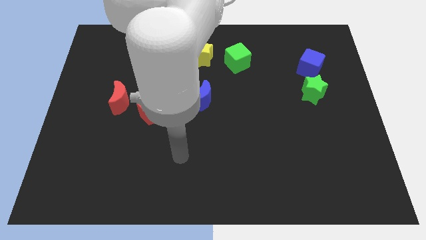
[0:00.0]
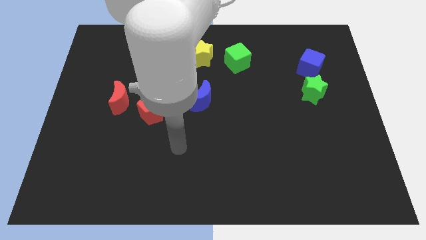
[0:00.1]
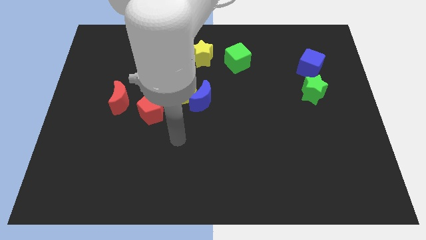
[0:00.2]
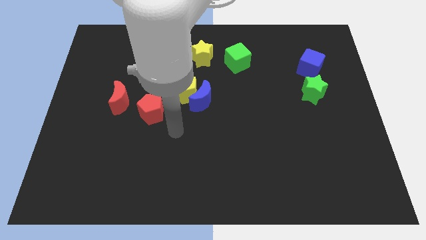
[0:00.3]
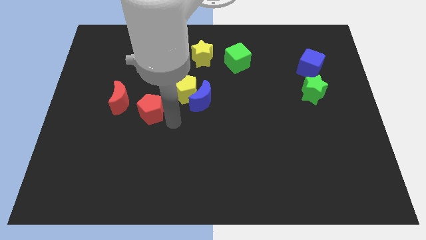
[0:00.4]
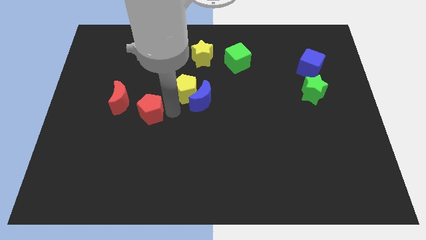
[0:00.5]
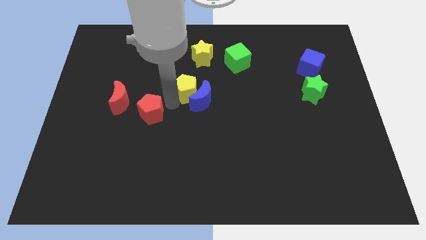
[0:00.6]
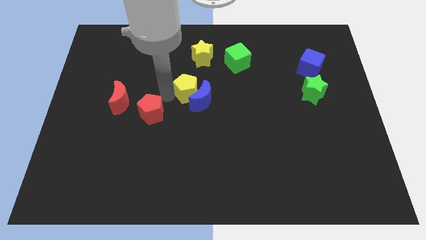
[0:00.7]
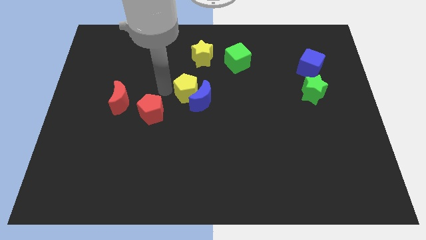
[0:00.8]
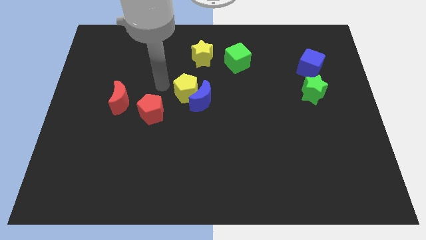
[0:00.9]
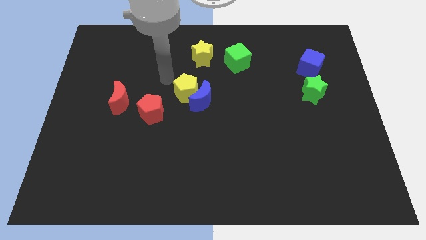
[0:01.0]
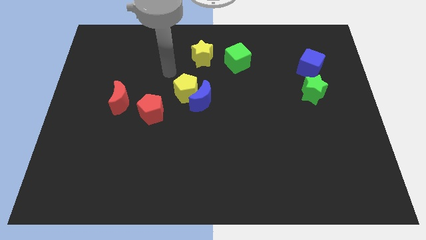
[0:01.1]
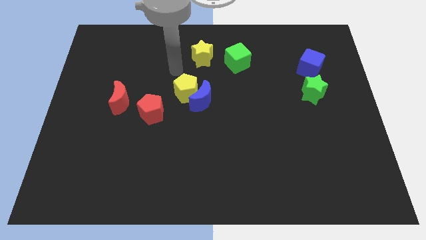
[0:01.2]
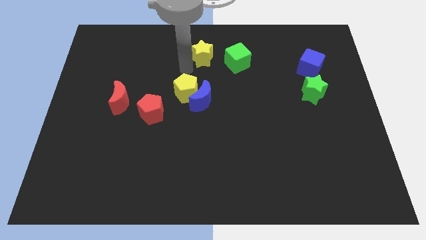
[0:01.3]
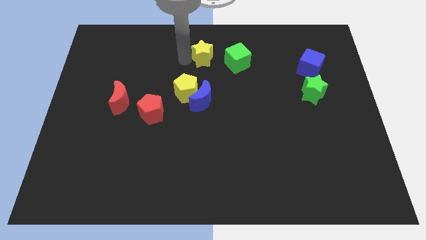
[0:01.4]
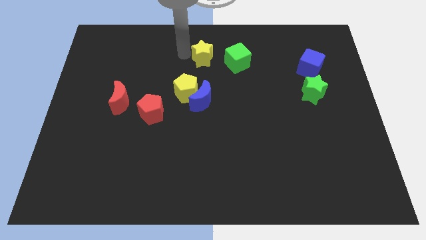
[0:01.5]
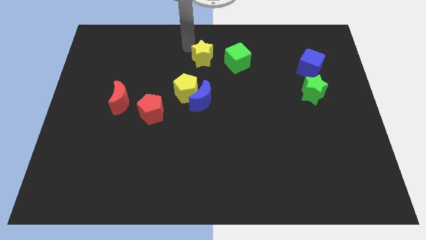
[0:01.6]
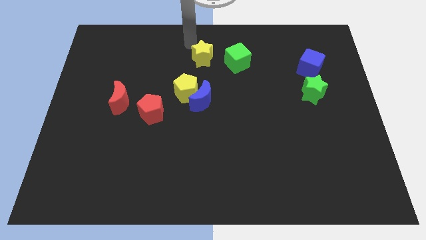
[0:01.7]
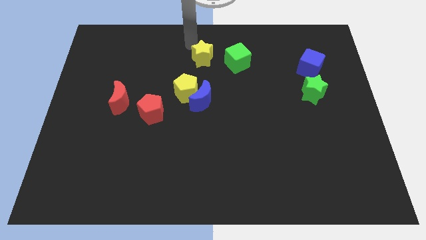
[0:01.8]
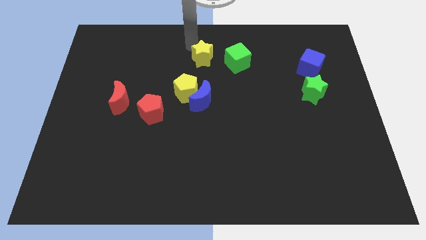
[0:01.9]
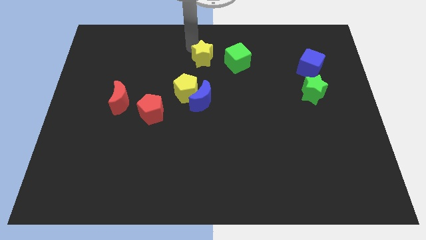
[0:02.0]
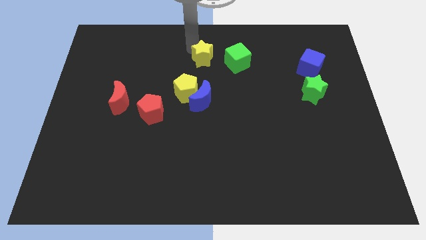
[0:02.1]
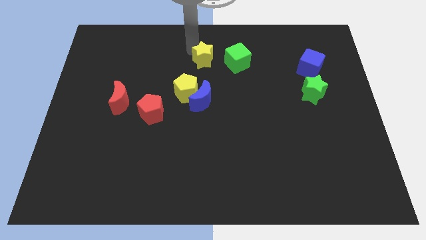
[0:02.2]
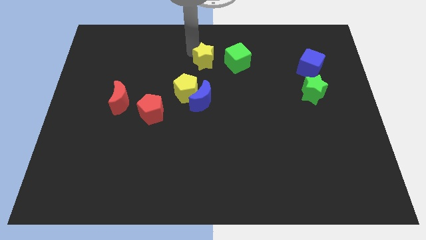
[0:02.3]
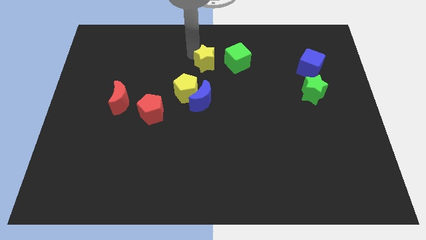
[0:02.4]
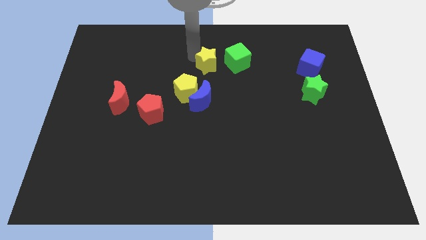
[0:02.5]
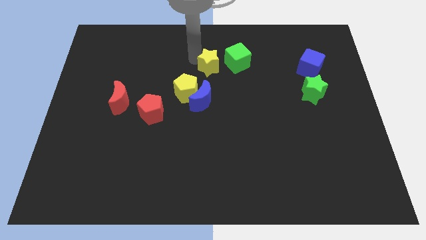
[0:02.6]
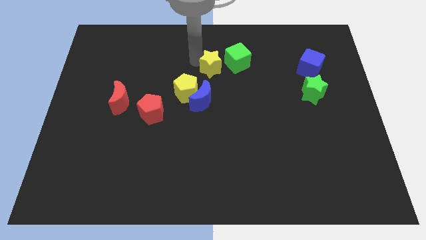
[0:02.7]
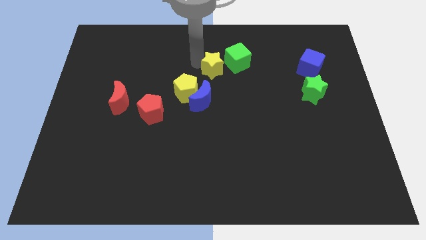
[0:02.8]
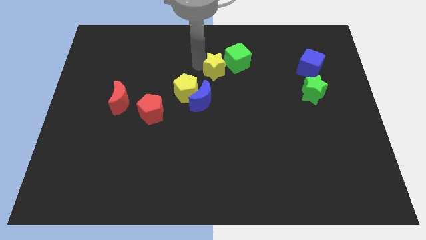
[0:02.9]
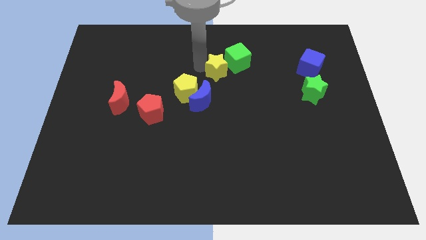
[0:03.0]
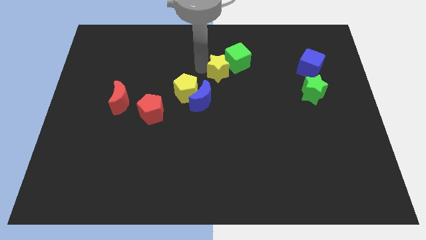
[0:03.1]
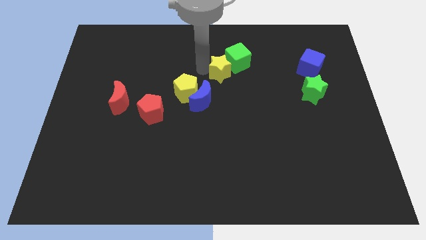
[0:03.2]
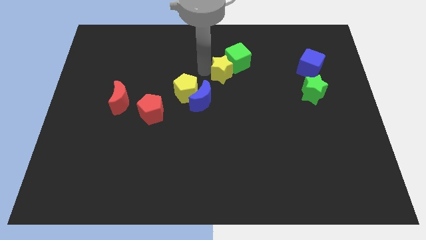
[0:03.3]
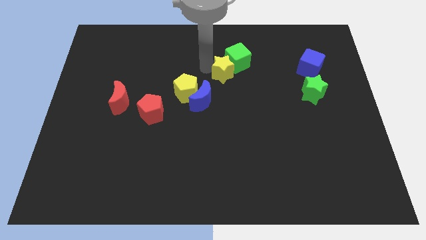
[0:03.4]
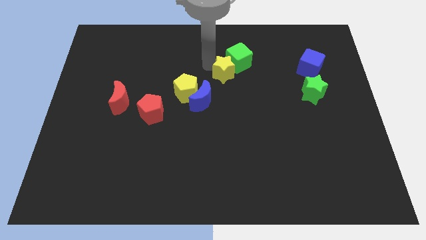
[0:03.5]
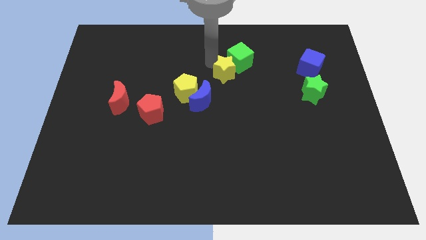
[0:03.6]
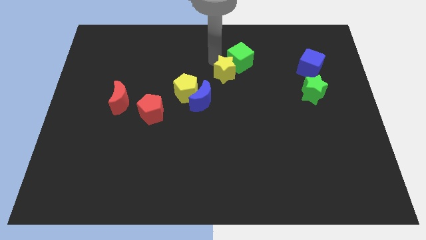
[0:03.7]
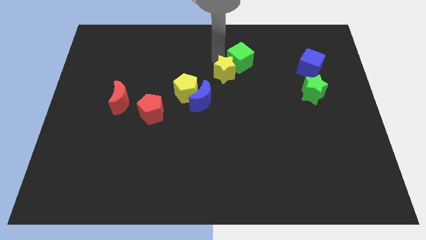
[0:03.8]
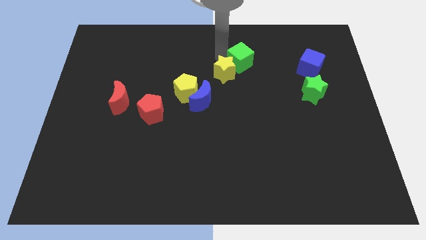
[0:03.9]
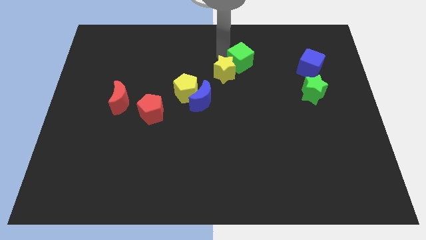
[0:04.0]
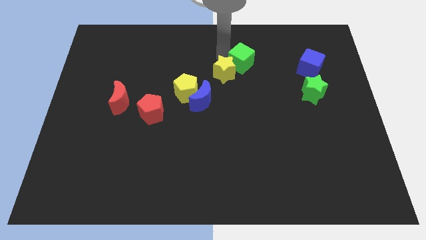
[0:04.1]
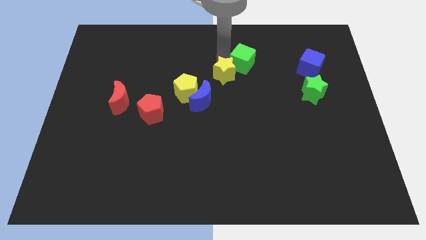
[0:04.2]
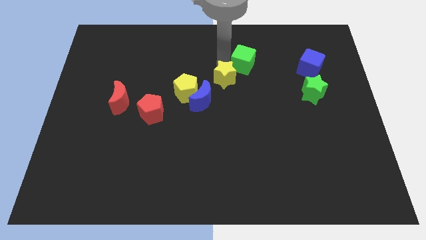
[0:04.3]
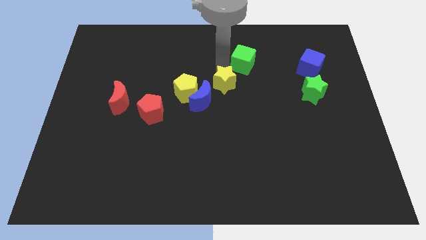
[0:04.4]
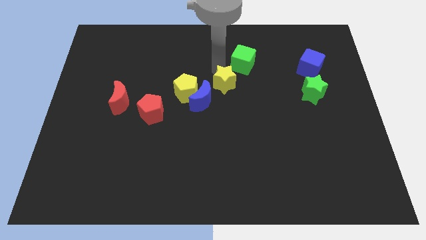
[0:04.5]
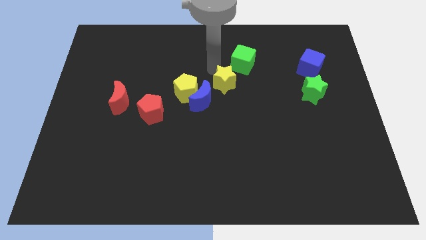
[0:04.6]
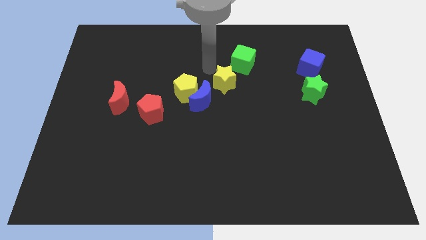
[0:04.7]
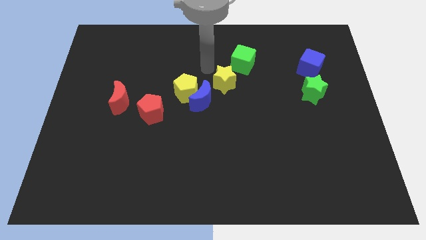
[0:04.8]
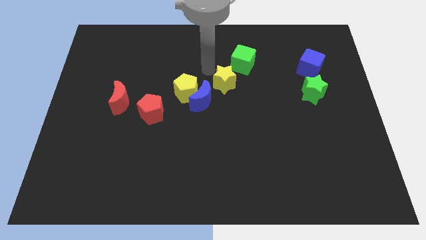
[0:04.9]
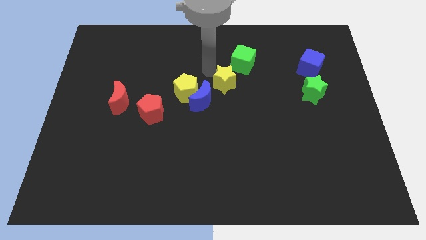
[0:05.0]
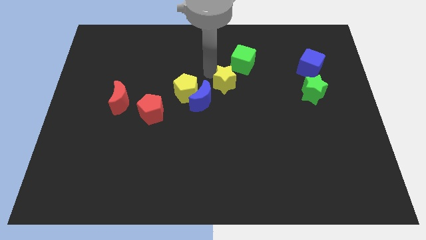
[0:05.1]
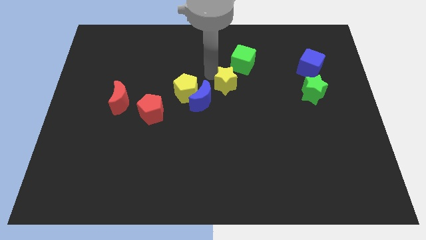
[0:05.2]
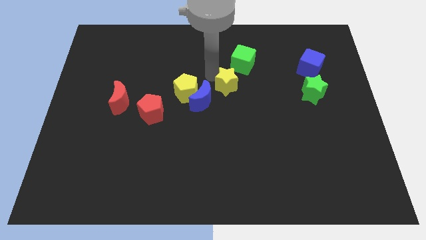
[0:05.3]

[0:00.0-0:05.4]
push the yellow star right of the blue moon

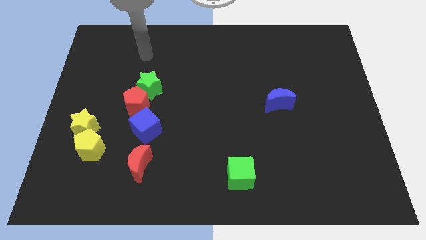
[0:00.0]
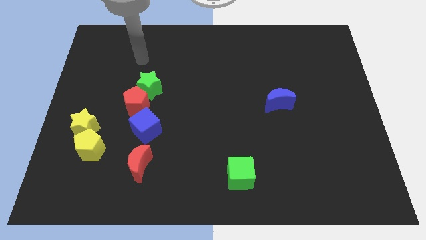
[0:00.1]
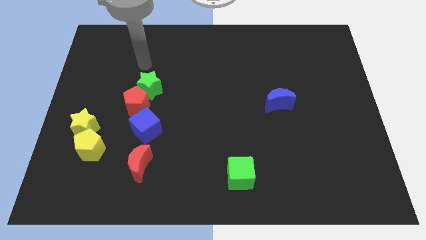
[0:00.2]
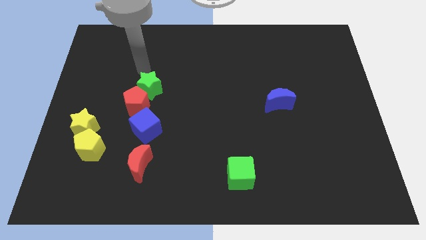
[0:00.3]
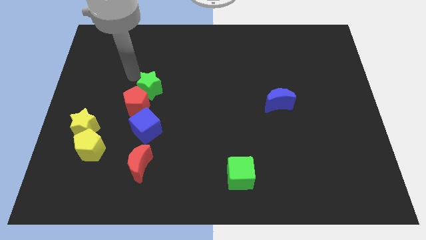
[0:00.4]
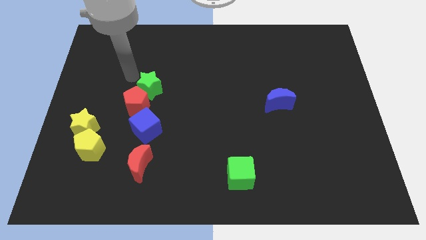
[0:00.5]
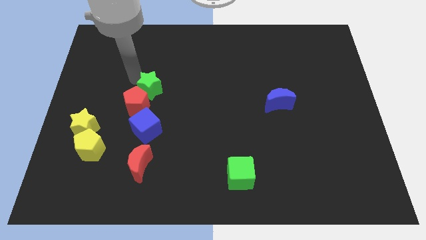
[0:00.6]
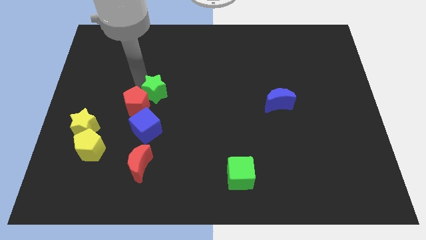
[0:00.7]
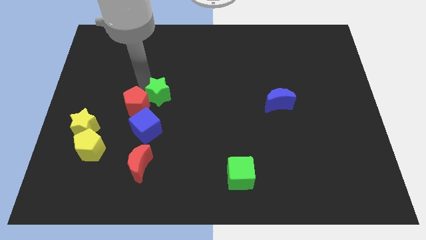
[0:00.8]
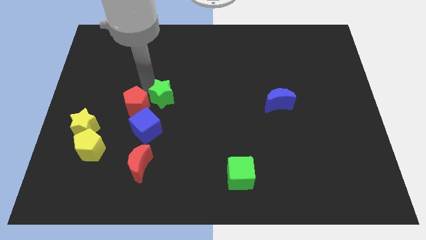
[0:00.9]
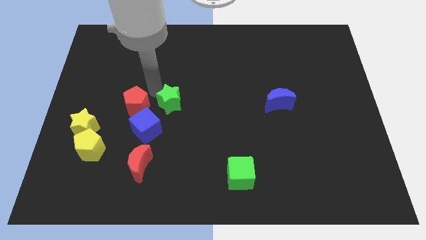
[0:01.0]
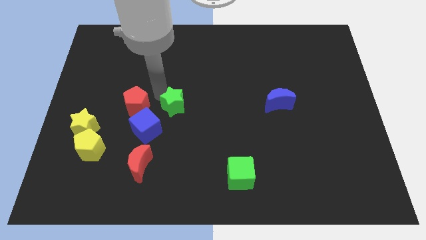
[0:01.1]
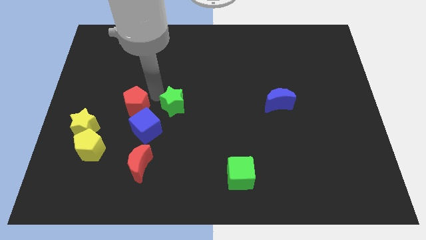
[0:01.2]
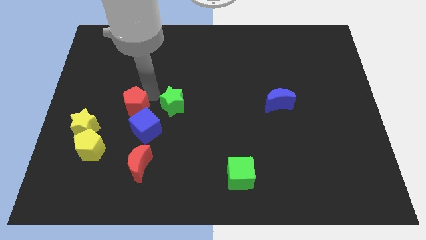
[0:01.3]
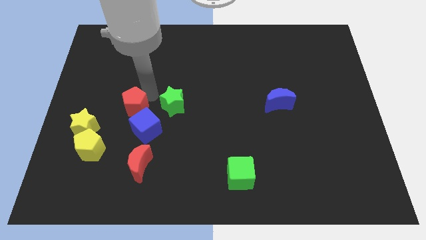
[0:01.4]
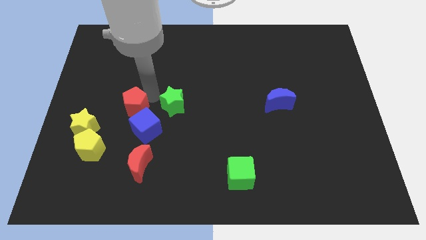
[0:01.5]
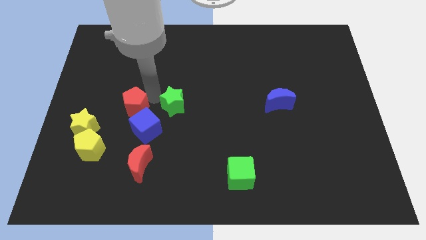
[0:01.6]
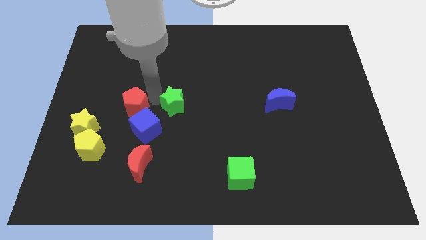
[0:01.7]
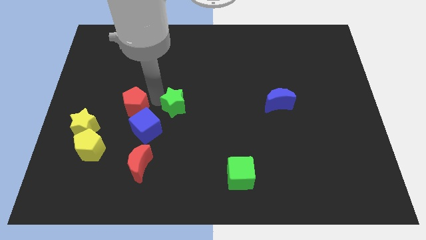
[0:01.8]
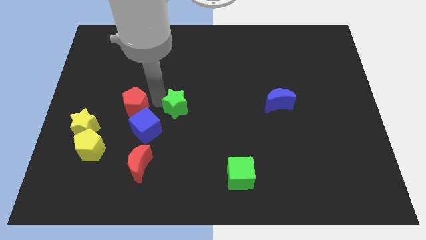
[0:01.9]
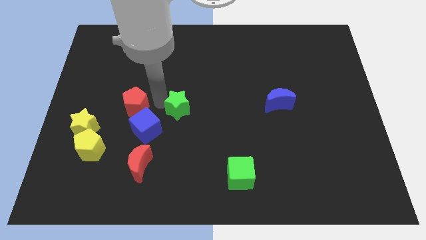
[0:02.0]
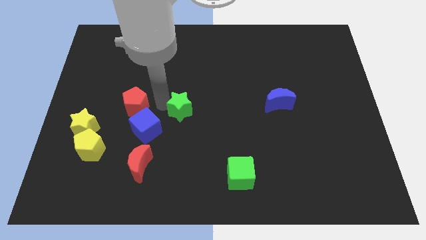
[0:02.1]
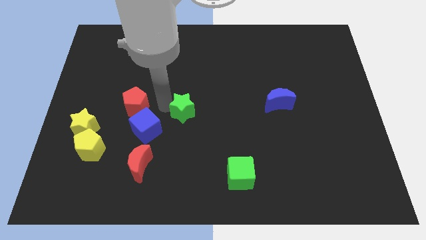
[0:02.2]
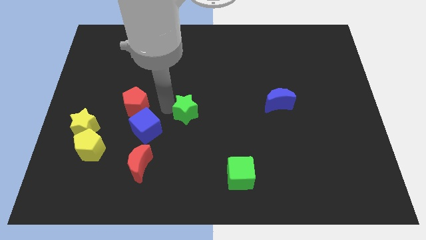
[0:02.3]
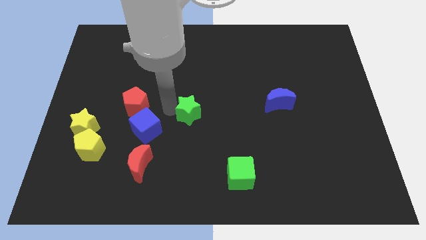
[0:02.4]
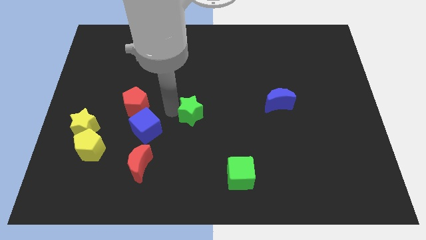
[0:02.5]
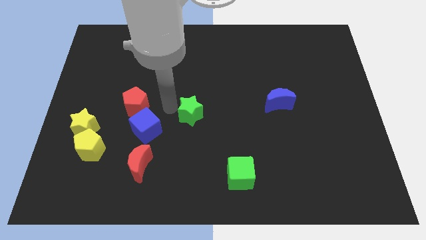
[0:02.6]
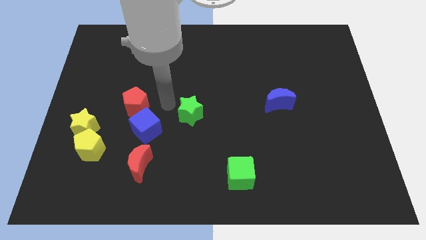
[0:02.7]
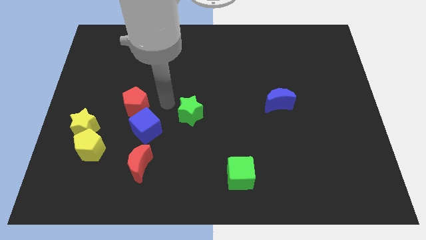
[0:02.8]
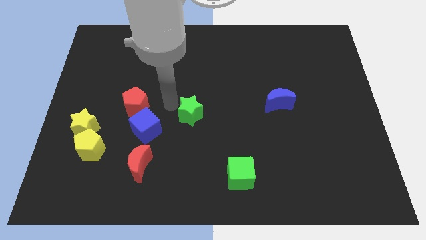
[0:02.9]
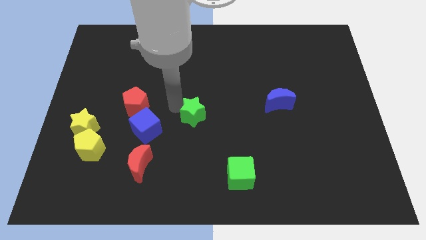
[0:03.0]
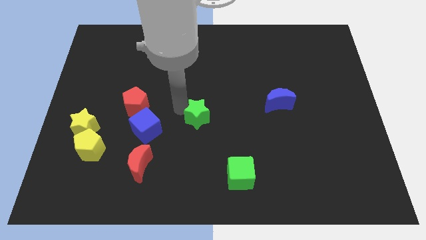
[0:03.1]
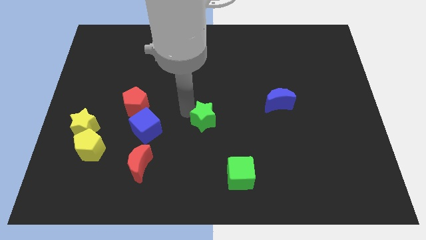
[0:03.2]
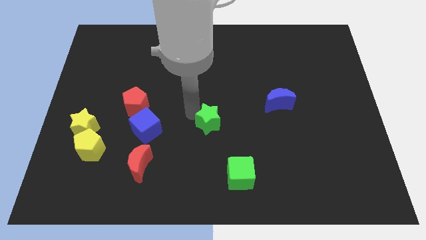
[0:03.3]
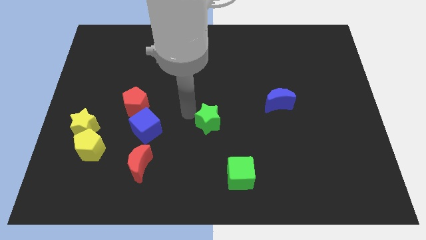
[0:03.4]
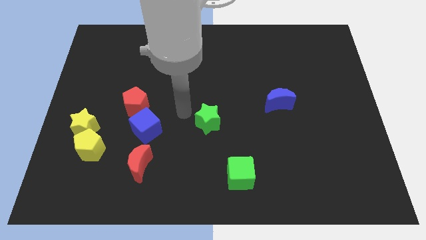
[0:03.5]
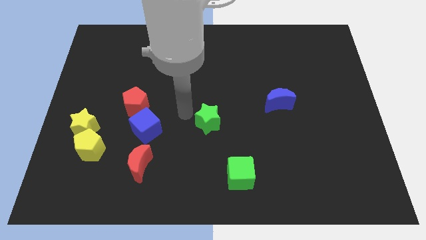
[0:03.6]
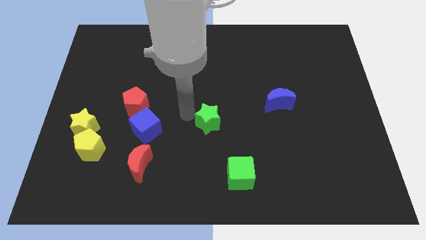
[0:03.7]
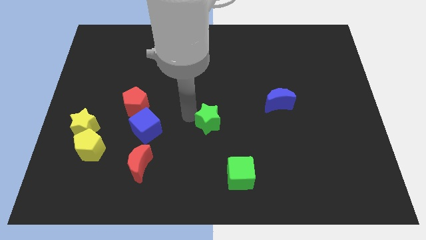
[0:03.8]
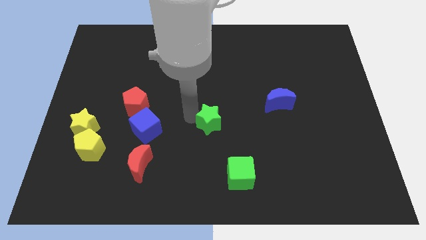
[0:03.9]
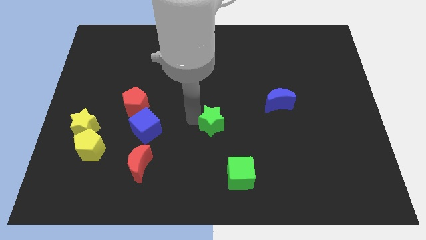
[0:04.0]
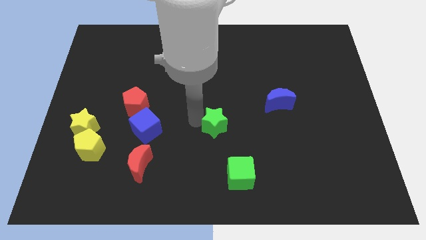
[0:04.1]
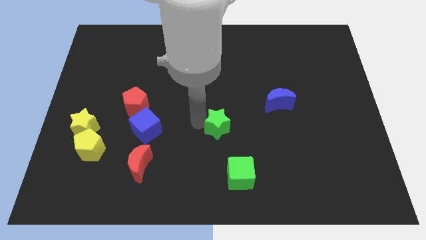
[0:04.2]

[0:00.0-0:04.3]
put the green star to the top side of the green cube
